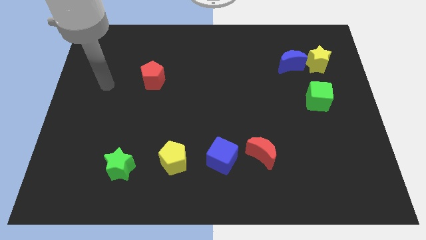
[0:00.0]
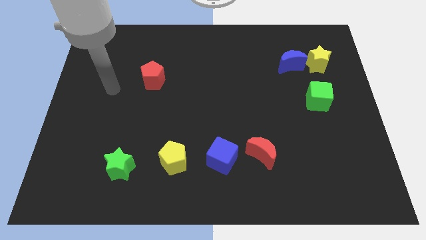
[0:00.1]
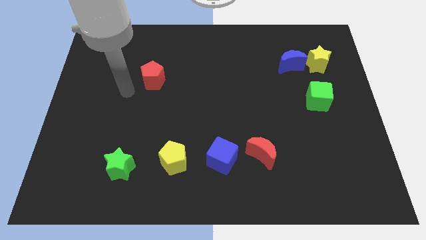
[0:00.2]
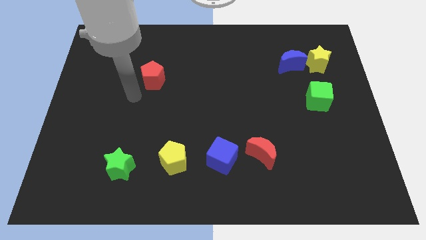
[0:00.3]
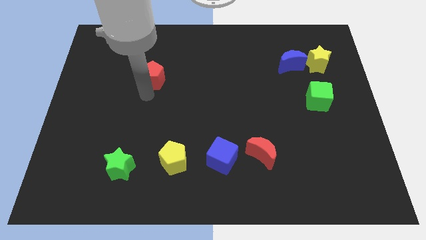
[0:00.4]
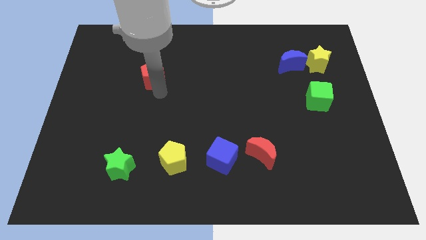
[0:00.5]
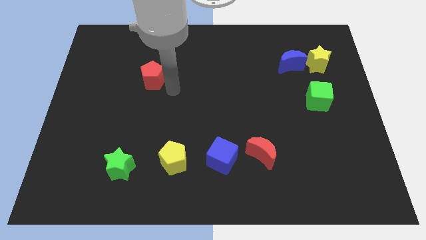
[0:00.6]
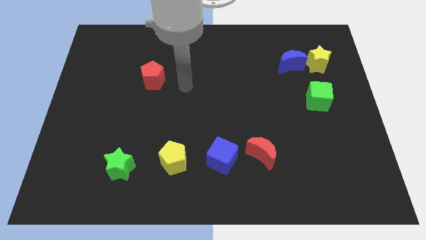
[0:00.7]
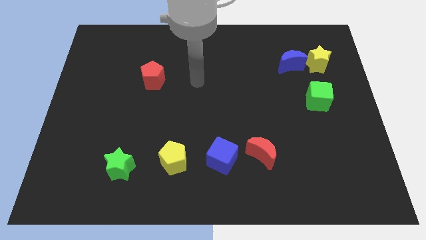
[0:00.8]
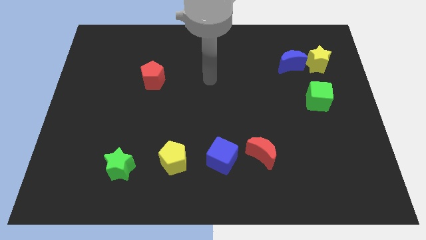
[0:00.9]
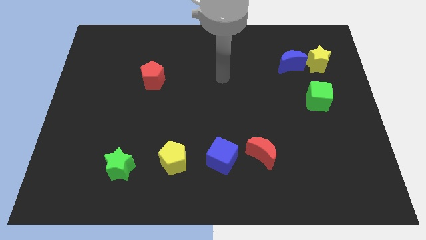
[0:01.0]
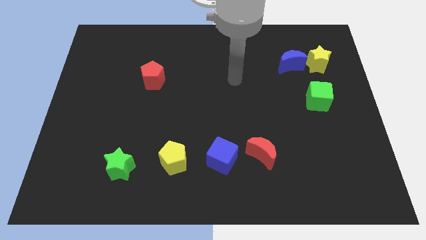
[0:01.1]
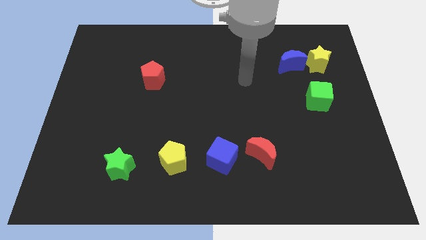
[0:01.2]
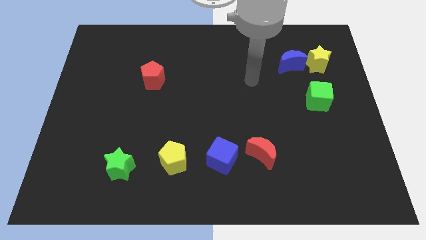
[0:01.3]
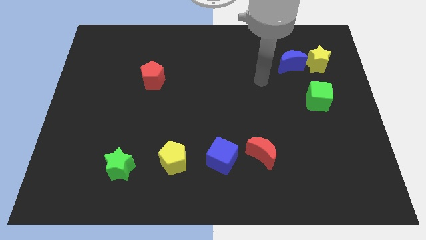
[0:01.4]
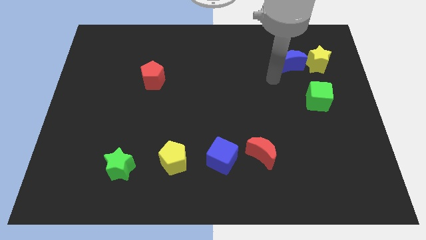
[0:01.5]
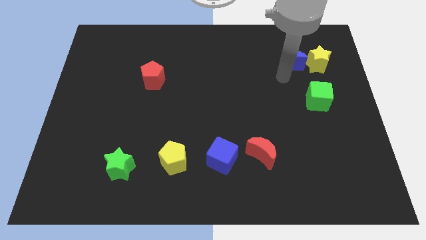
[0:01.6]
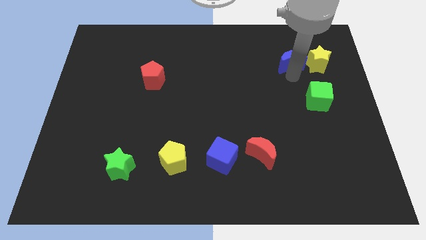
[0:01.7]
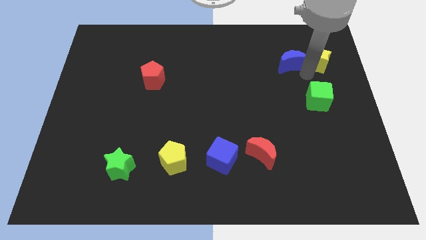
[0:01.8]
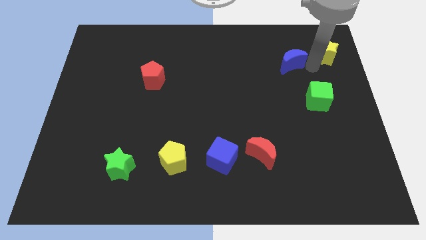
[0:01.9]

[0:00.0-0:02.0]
move the blue moon away from the yellow star

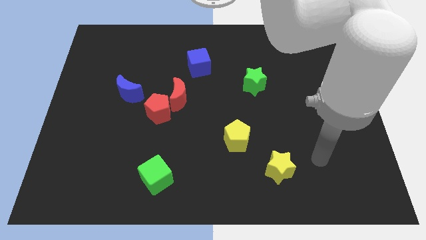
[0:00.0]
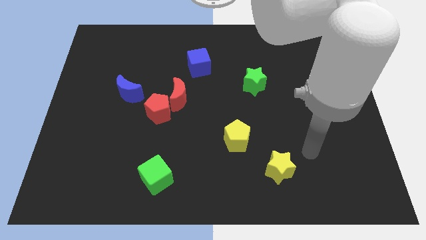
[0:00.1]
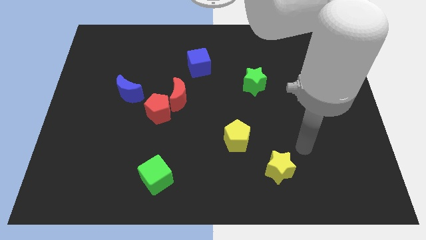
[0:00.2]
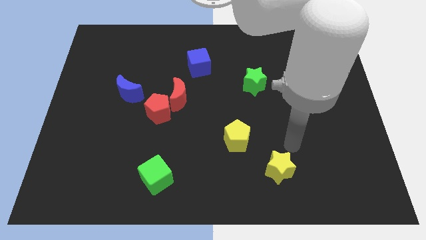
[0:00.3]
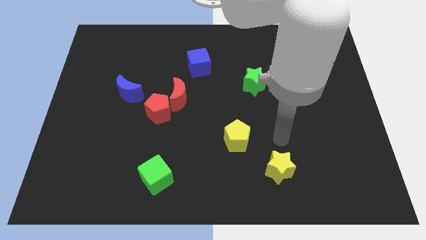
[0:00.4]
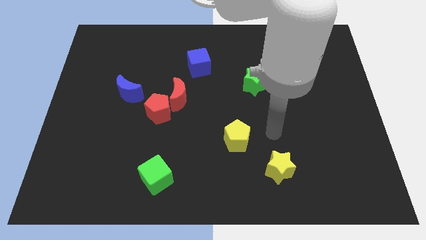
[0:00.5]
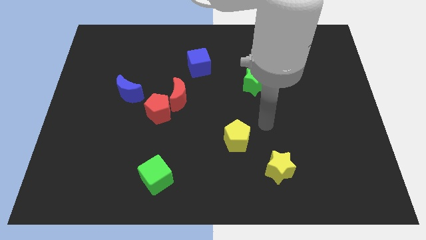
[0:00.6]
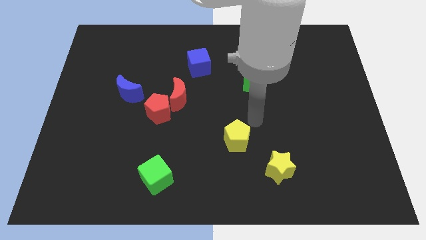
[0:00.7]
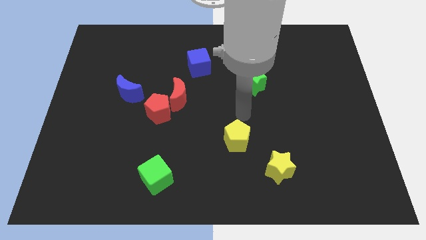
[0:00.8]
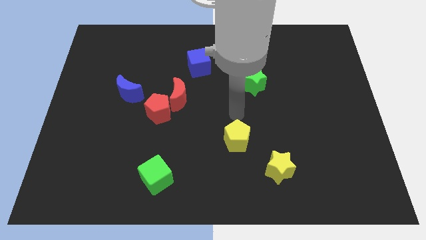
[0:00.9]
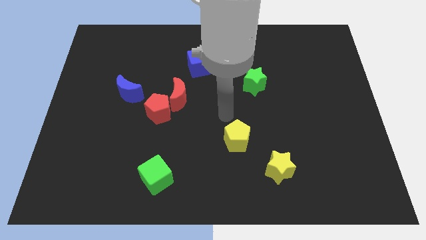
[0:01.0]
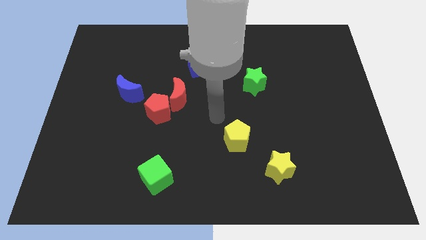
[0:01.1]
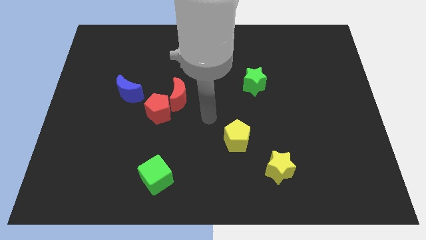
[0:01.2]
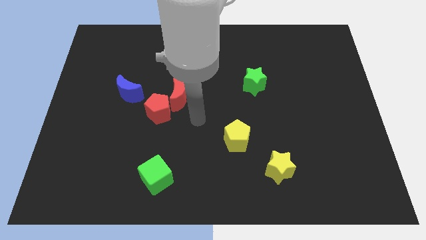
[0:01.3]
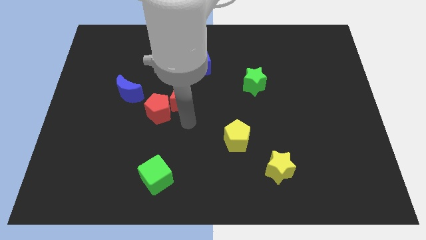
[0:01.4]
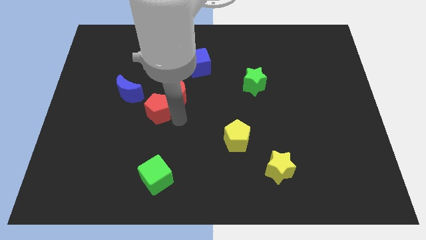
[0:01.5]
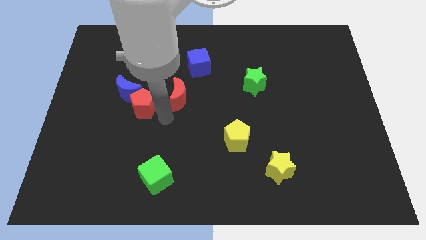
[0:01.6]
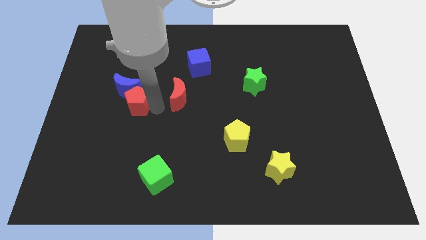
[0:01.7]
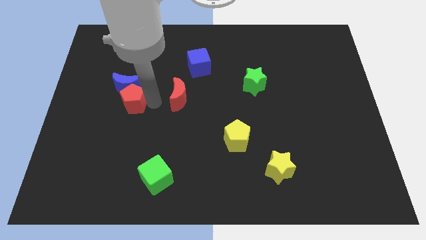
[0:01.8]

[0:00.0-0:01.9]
pull the red moon apart from the red pentagon

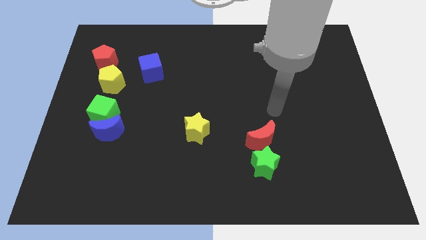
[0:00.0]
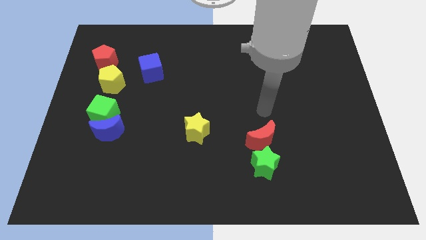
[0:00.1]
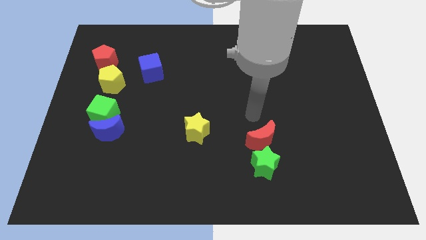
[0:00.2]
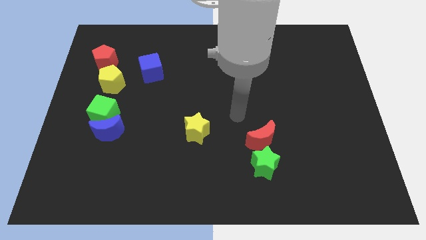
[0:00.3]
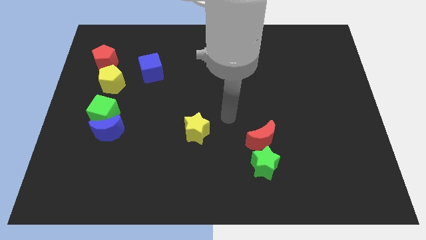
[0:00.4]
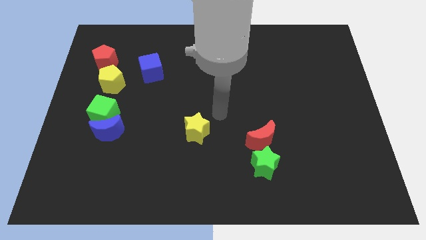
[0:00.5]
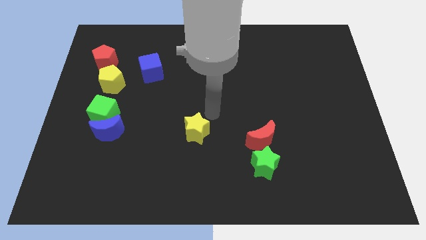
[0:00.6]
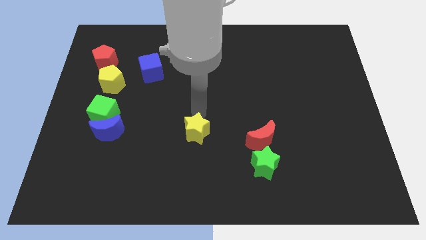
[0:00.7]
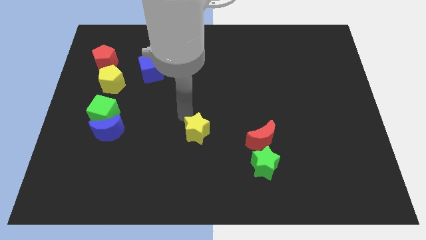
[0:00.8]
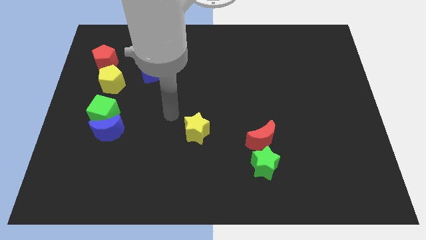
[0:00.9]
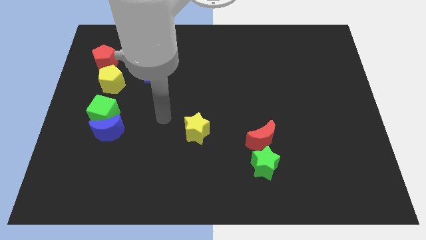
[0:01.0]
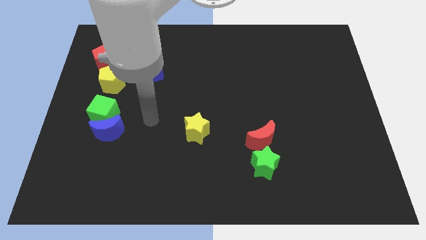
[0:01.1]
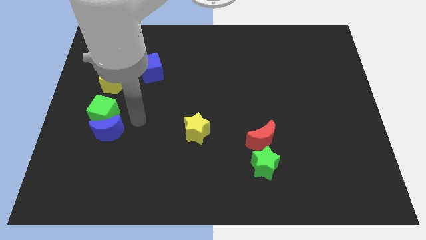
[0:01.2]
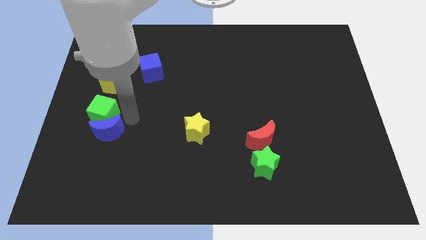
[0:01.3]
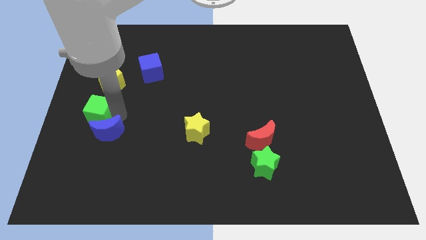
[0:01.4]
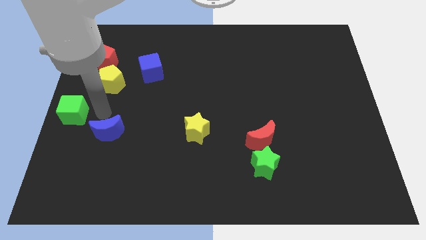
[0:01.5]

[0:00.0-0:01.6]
separate the blue moon from the green cube

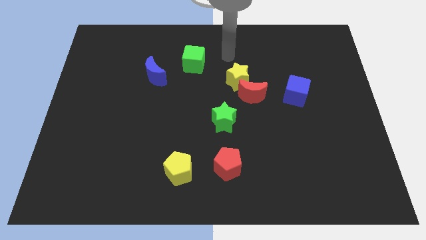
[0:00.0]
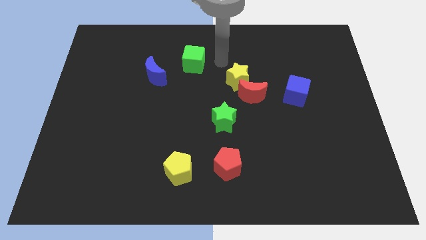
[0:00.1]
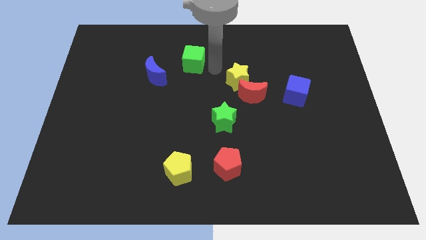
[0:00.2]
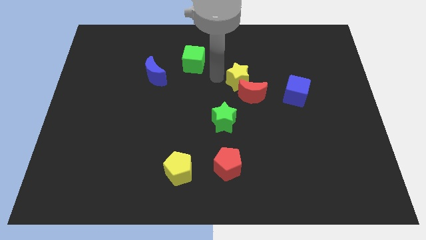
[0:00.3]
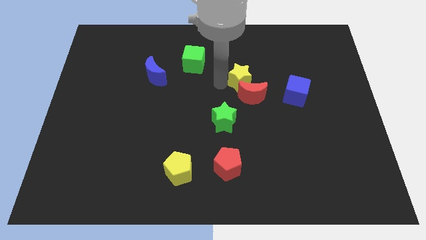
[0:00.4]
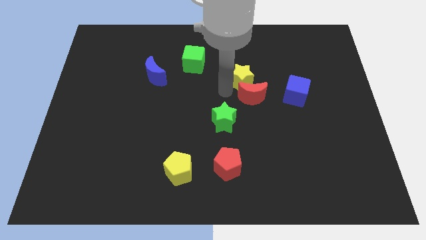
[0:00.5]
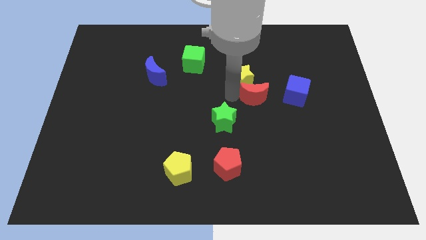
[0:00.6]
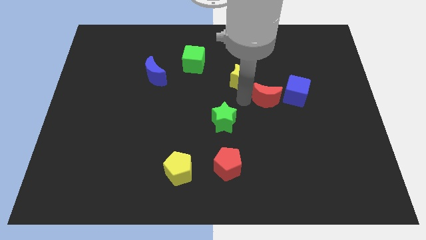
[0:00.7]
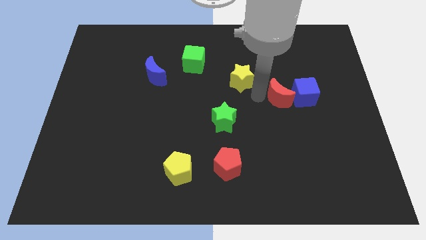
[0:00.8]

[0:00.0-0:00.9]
move the yellow star away from the red moon

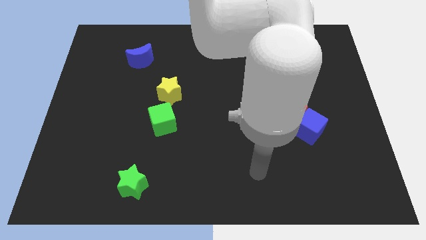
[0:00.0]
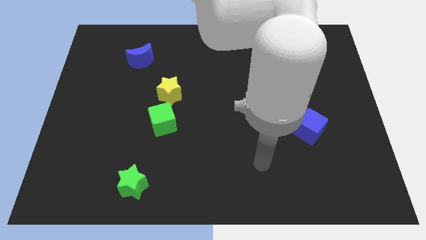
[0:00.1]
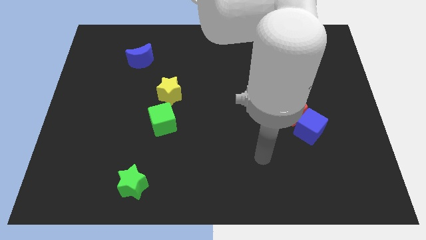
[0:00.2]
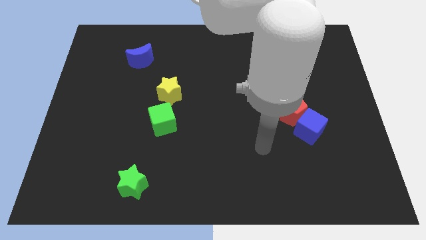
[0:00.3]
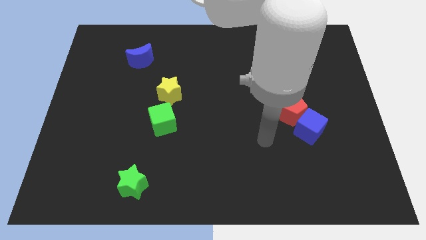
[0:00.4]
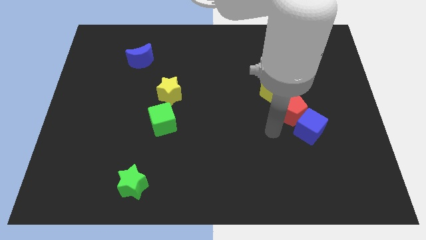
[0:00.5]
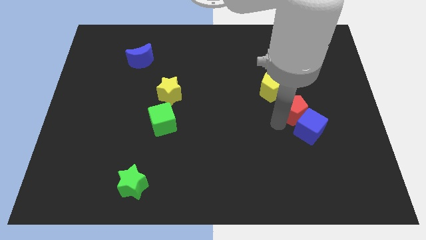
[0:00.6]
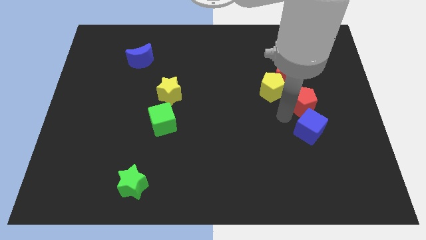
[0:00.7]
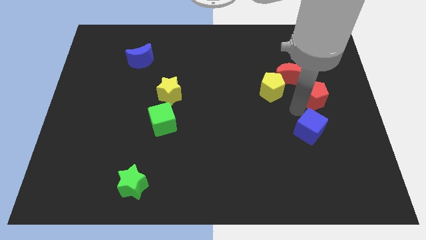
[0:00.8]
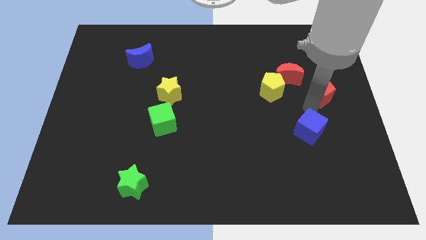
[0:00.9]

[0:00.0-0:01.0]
separate the blue cube from the red pentagon

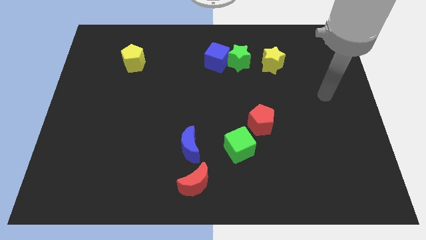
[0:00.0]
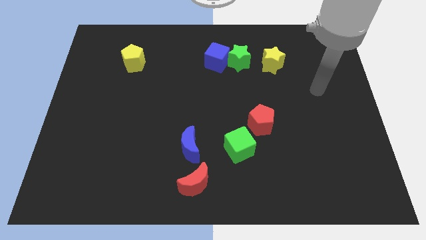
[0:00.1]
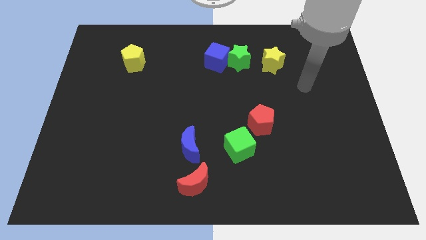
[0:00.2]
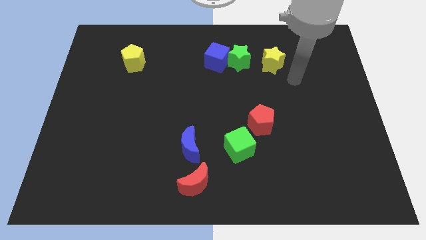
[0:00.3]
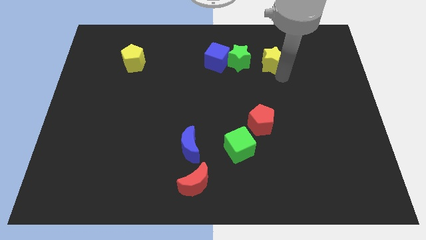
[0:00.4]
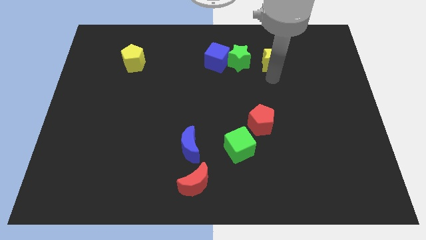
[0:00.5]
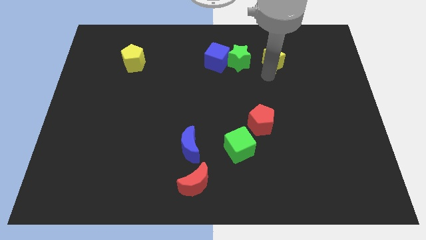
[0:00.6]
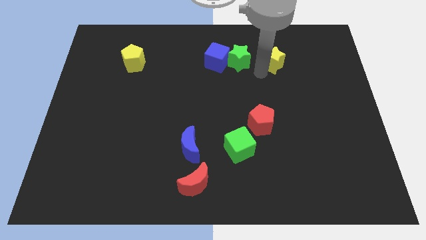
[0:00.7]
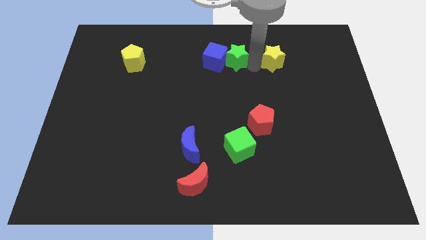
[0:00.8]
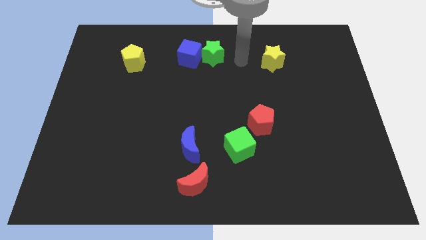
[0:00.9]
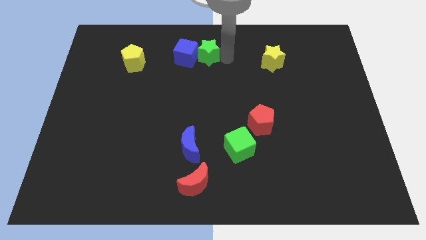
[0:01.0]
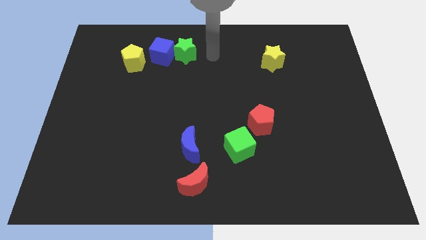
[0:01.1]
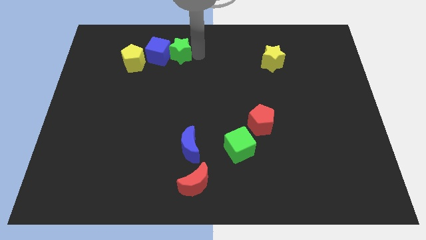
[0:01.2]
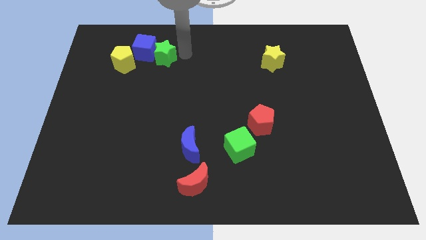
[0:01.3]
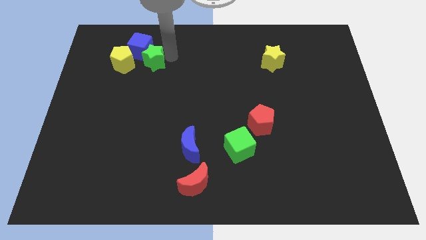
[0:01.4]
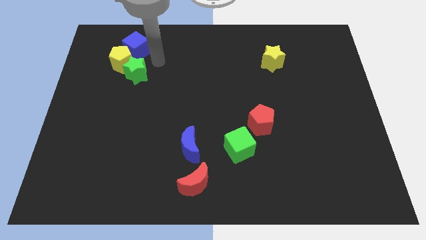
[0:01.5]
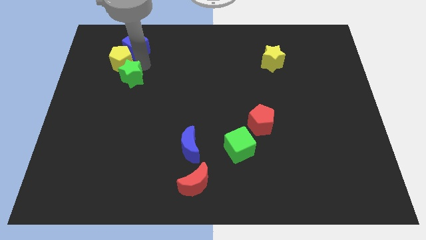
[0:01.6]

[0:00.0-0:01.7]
separate the blue cube from the green star

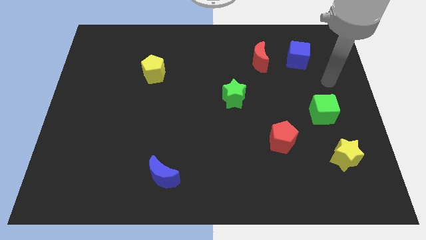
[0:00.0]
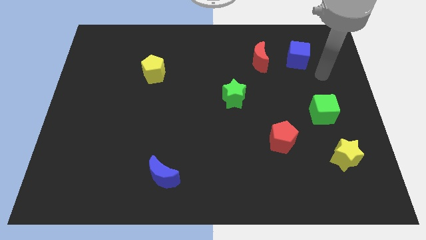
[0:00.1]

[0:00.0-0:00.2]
move the red moon away from the blue cube
